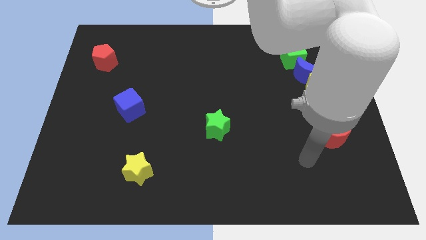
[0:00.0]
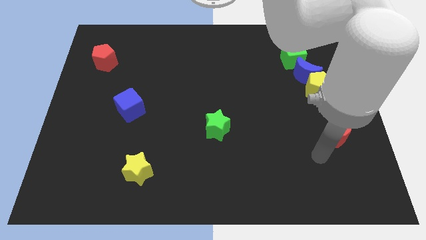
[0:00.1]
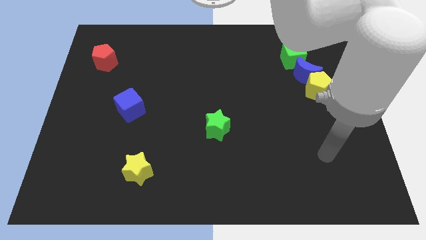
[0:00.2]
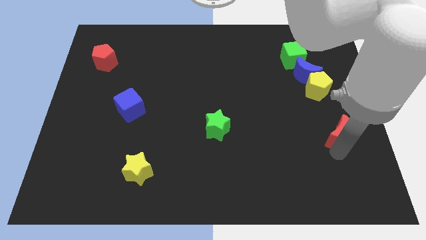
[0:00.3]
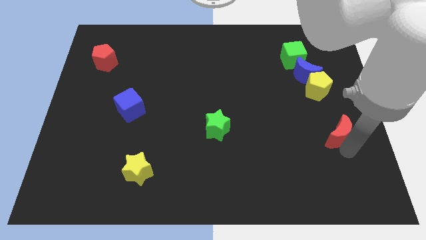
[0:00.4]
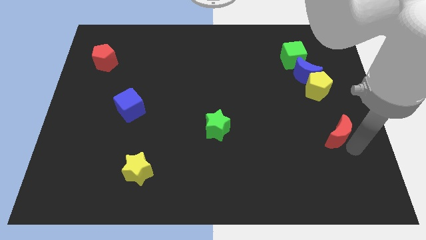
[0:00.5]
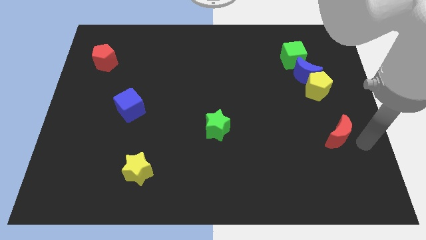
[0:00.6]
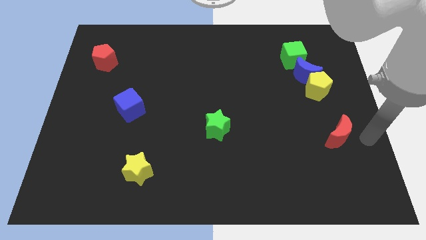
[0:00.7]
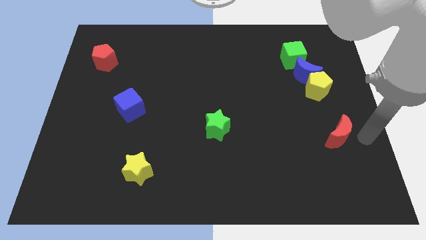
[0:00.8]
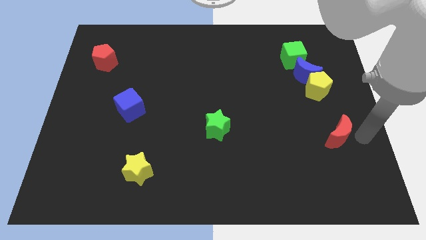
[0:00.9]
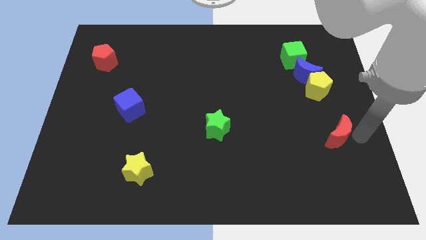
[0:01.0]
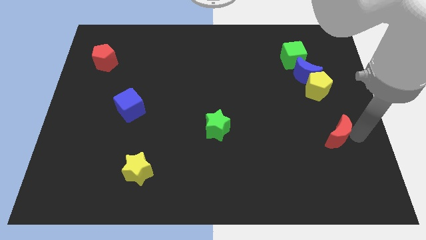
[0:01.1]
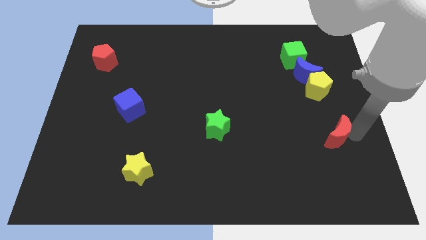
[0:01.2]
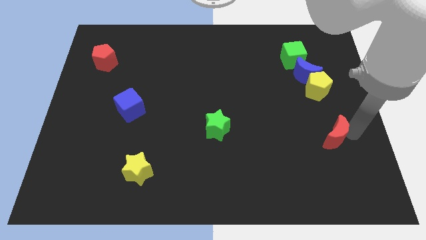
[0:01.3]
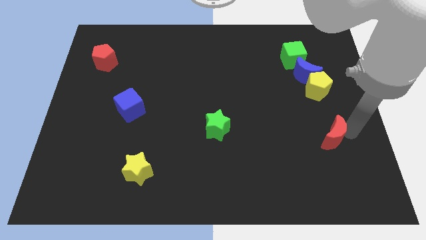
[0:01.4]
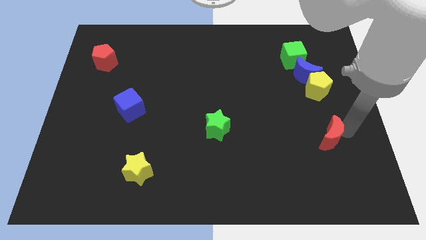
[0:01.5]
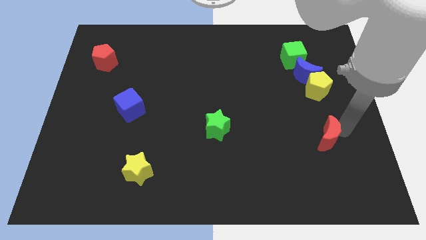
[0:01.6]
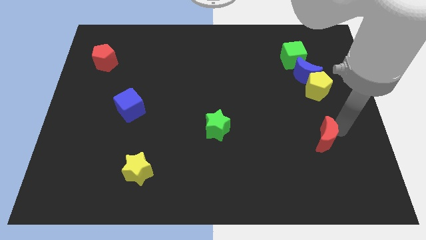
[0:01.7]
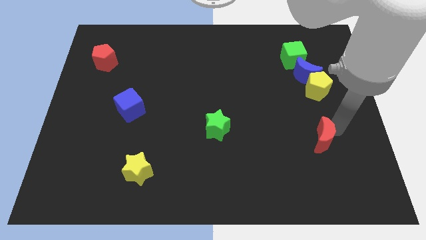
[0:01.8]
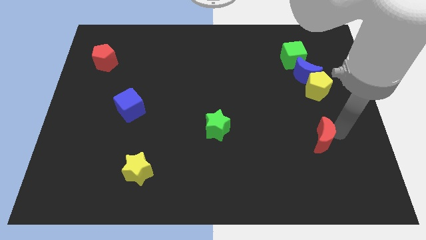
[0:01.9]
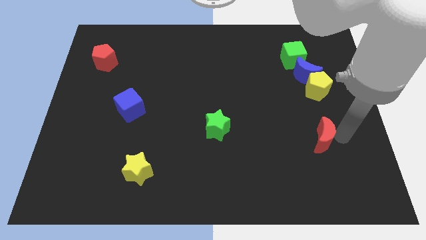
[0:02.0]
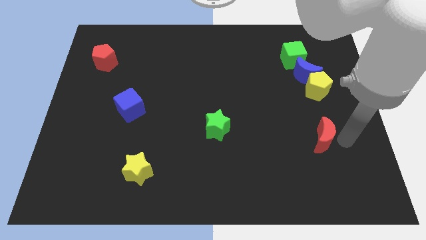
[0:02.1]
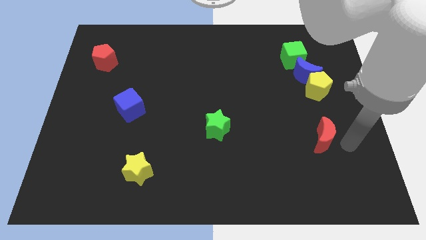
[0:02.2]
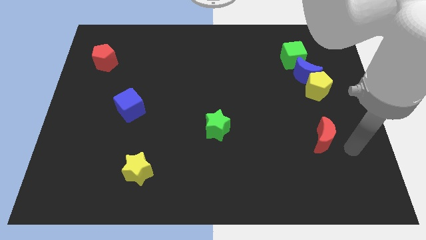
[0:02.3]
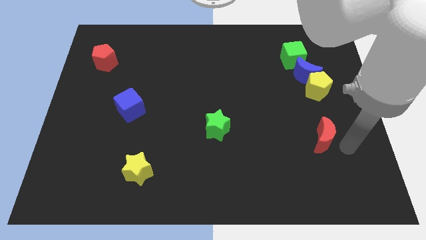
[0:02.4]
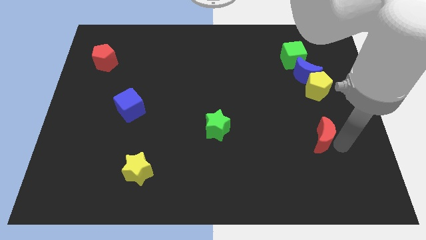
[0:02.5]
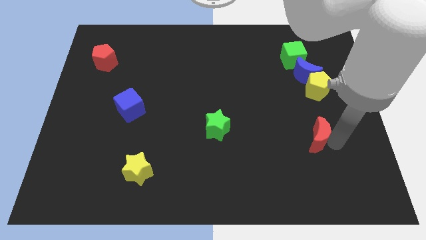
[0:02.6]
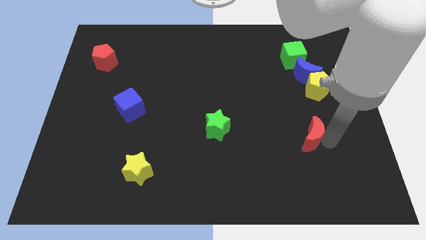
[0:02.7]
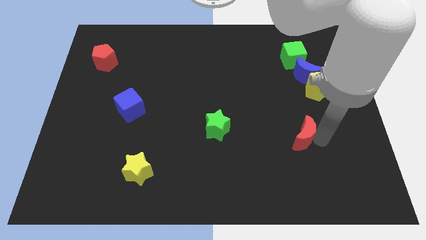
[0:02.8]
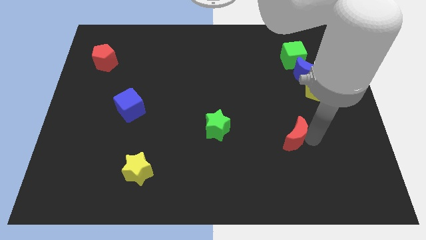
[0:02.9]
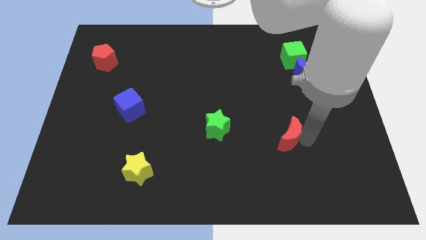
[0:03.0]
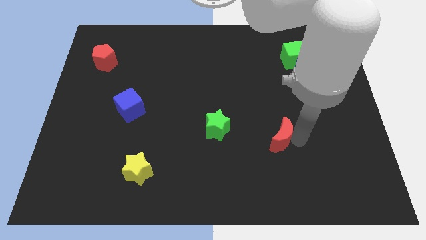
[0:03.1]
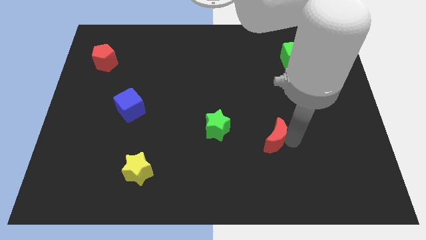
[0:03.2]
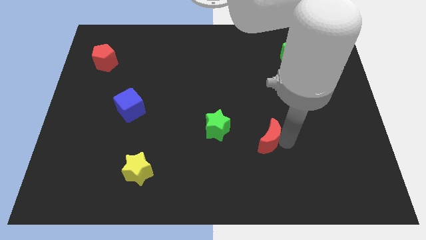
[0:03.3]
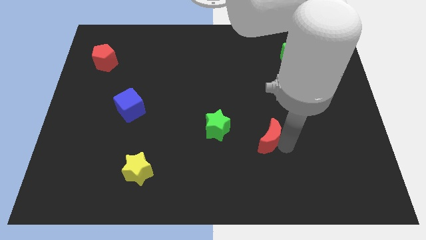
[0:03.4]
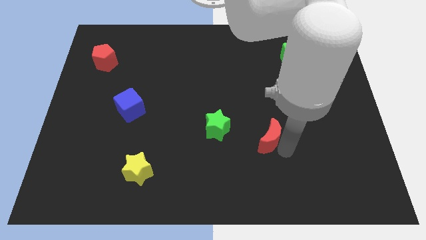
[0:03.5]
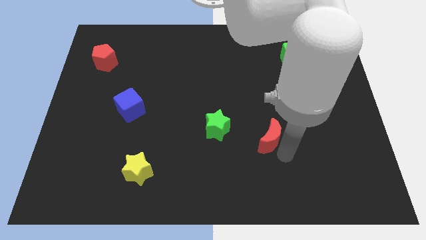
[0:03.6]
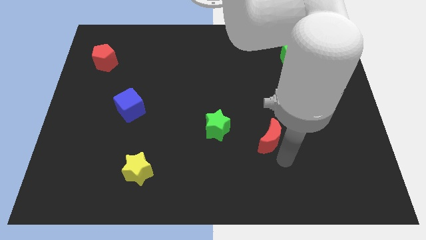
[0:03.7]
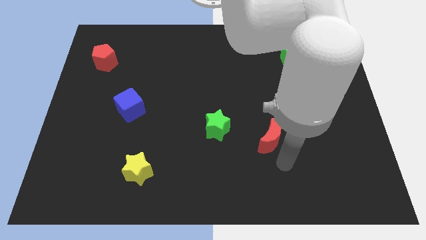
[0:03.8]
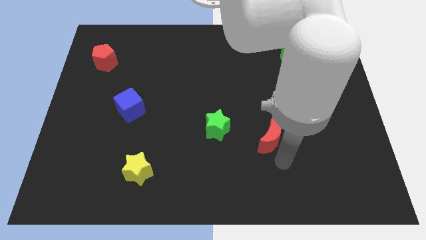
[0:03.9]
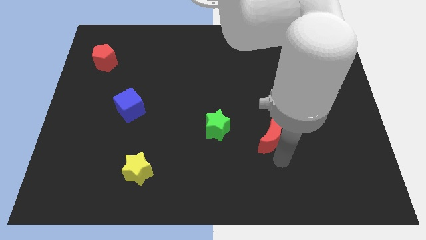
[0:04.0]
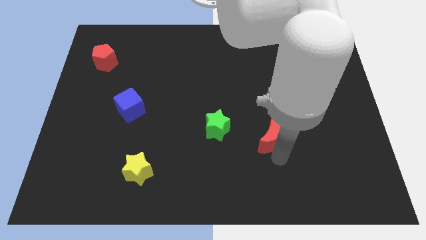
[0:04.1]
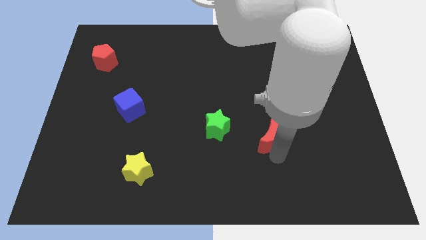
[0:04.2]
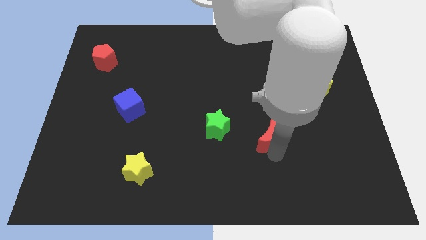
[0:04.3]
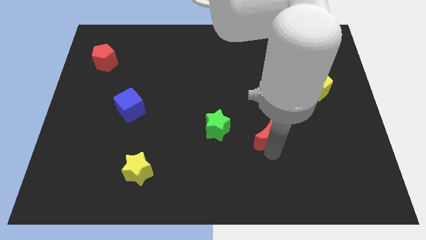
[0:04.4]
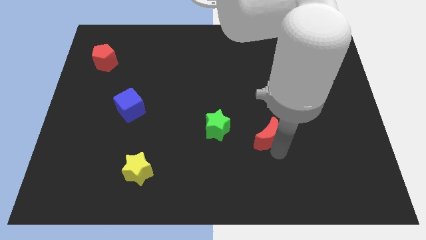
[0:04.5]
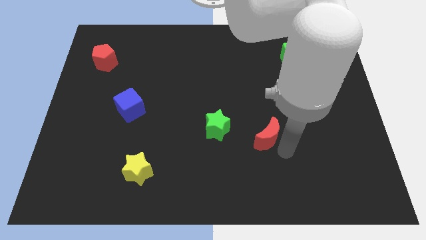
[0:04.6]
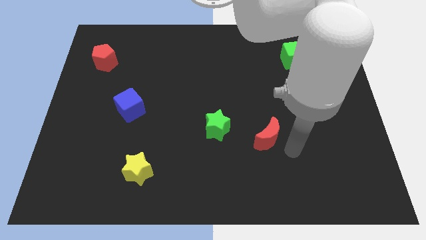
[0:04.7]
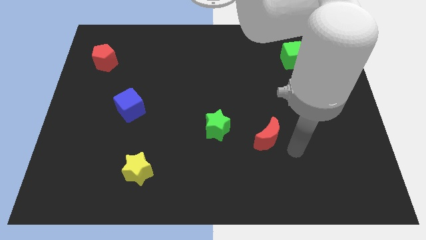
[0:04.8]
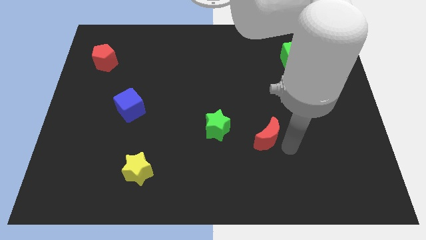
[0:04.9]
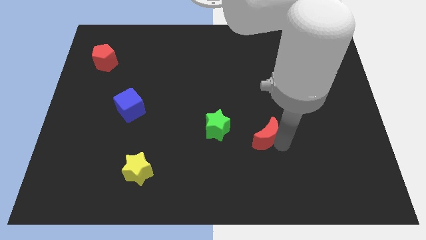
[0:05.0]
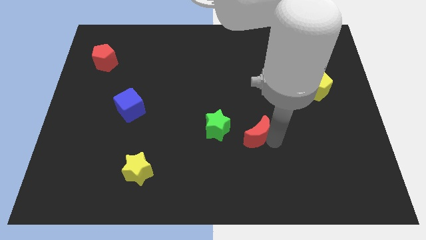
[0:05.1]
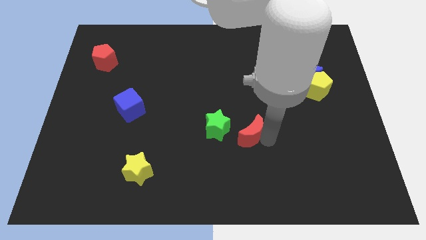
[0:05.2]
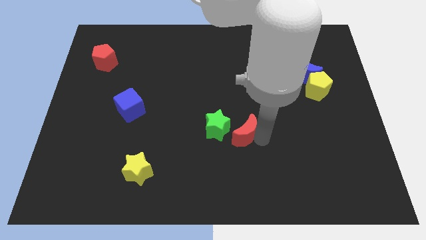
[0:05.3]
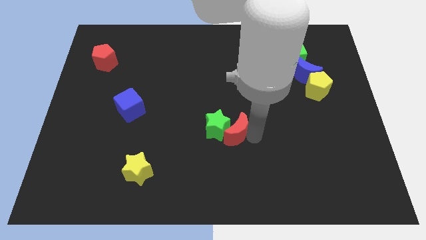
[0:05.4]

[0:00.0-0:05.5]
slide the red moon to the green star

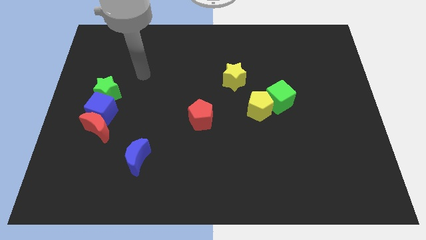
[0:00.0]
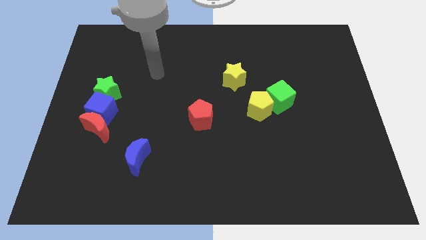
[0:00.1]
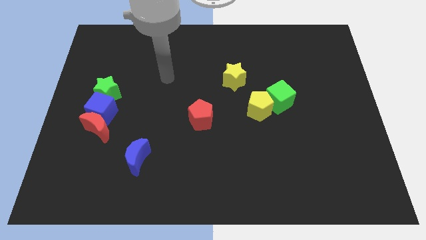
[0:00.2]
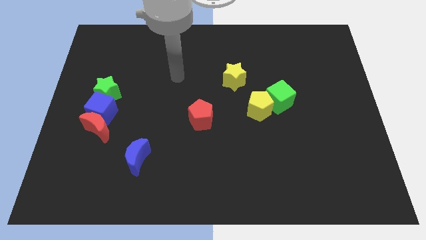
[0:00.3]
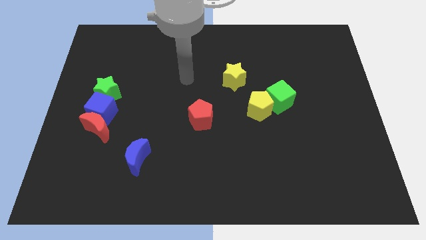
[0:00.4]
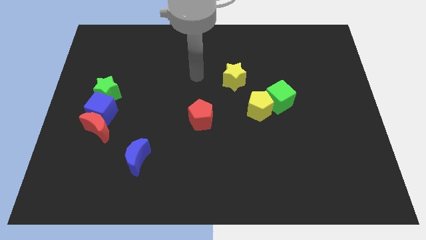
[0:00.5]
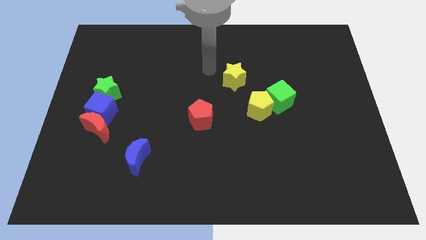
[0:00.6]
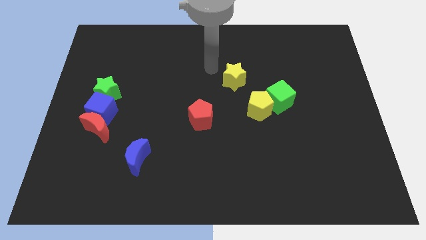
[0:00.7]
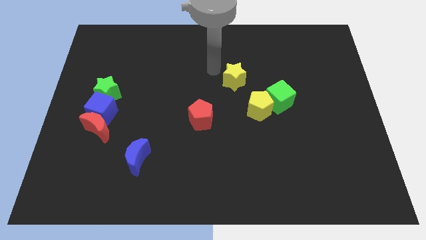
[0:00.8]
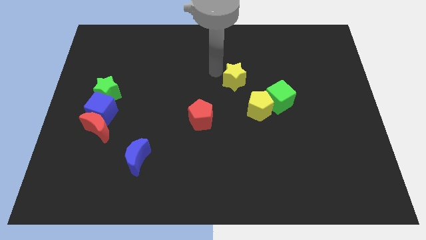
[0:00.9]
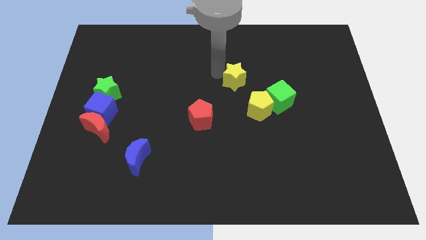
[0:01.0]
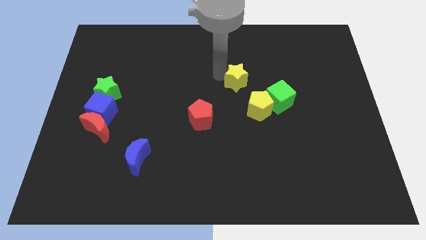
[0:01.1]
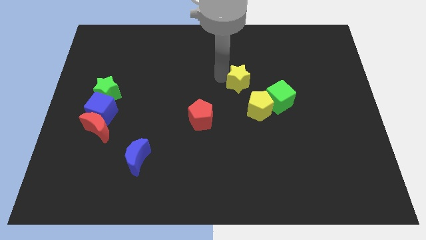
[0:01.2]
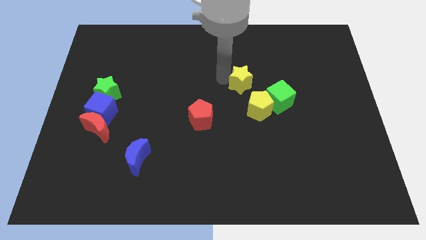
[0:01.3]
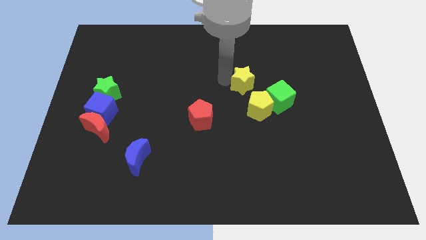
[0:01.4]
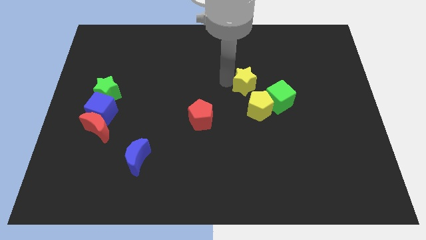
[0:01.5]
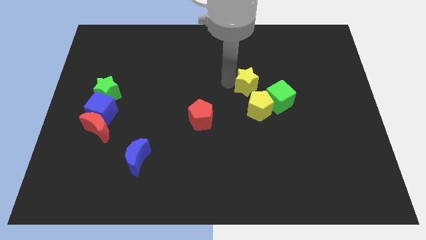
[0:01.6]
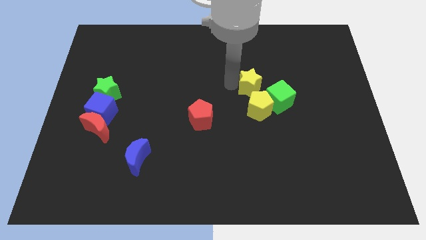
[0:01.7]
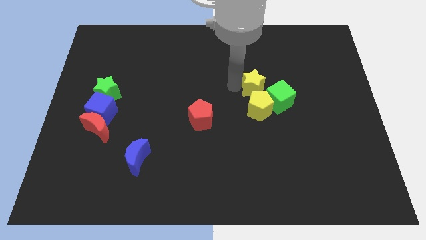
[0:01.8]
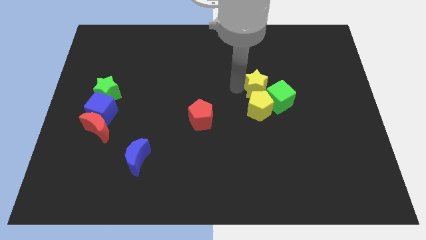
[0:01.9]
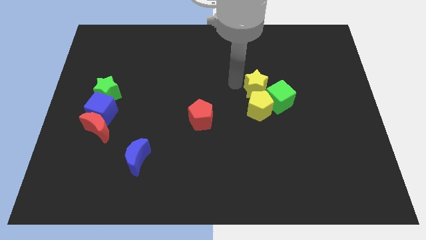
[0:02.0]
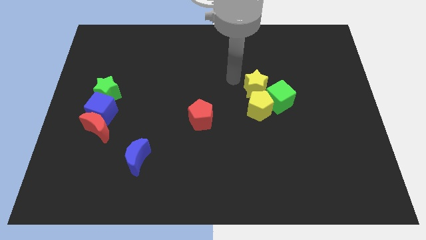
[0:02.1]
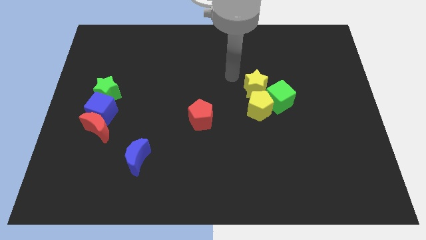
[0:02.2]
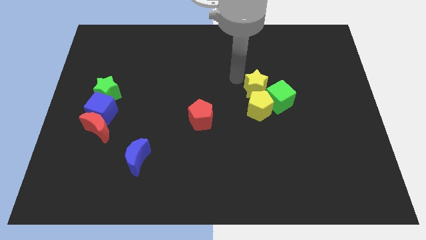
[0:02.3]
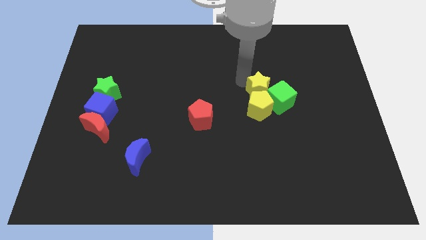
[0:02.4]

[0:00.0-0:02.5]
slide the yellow star close to the green cube
